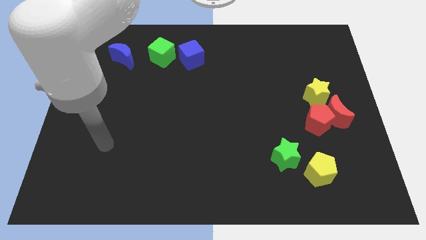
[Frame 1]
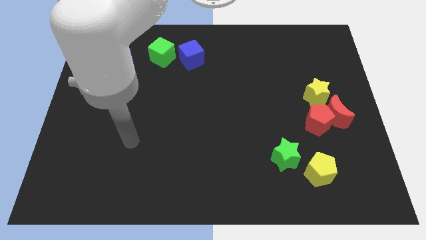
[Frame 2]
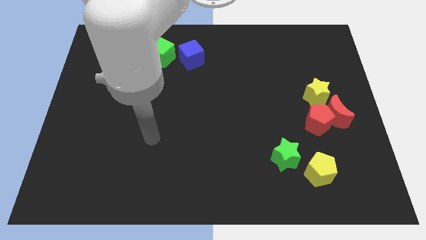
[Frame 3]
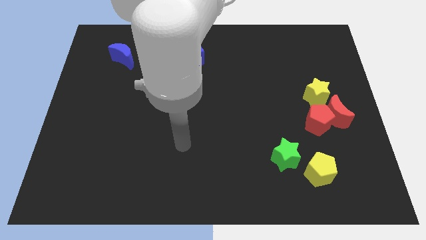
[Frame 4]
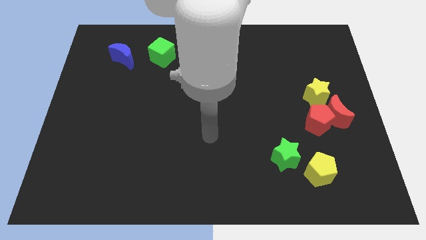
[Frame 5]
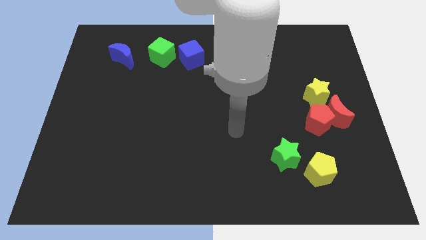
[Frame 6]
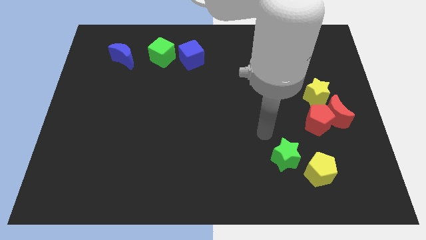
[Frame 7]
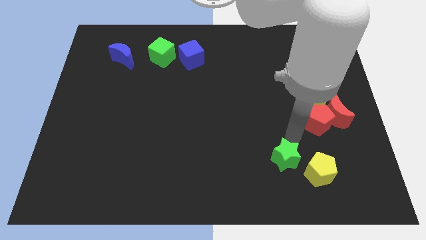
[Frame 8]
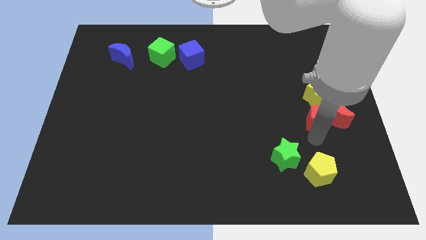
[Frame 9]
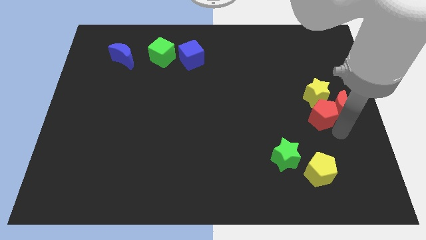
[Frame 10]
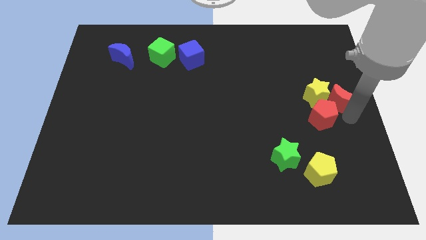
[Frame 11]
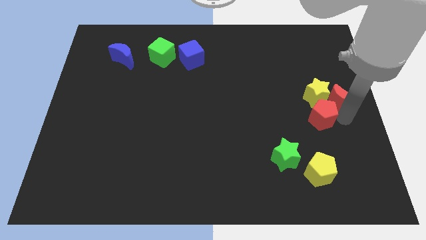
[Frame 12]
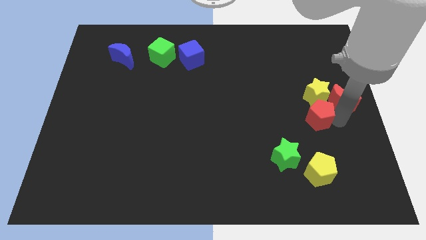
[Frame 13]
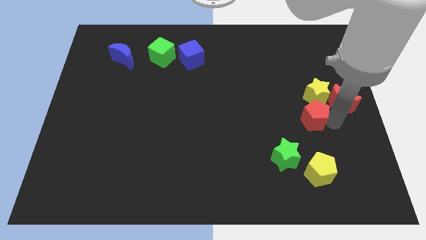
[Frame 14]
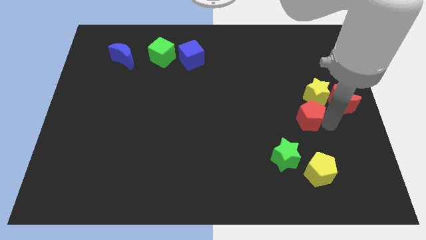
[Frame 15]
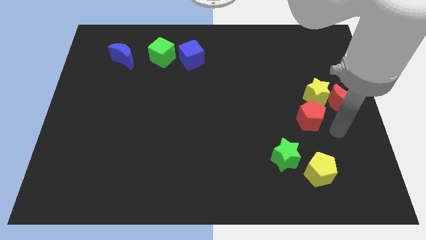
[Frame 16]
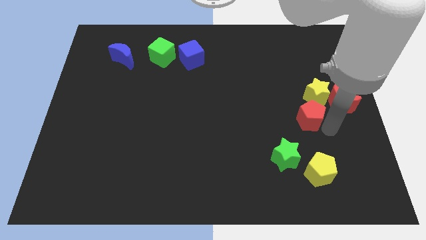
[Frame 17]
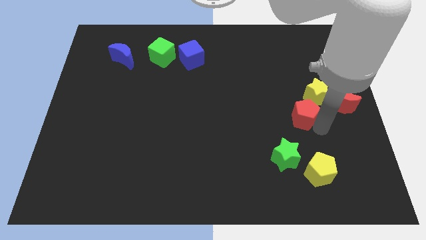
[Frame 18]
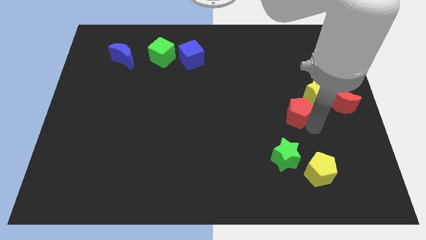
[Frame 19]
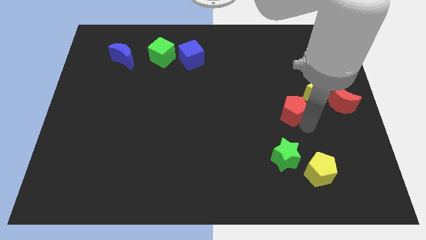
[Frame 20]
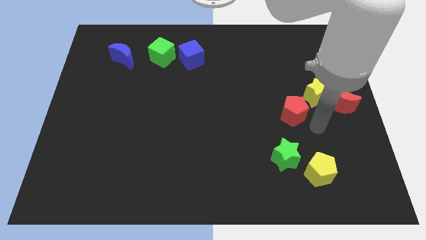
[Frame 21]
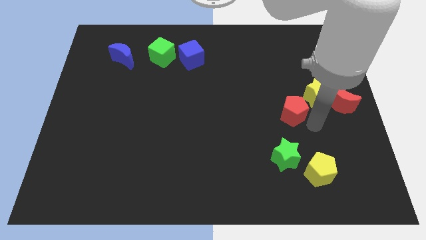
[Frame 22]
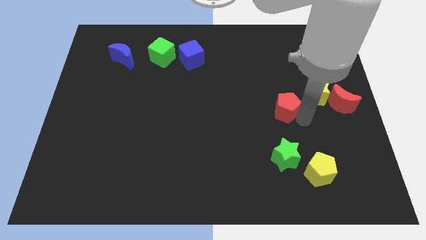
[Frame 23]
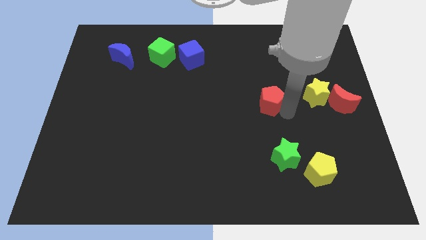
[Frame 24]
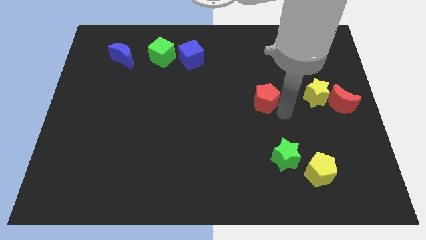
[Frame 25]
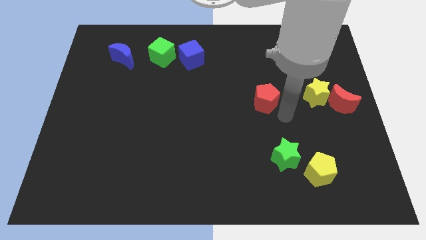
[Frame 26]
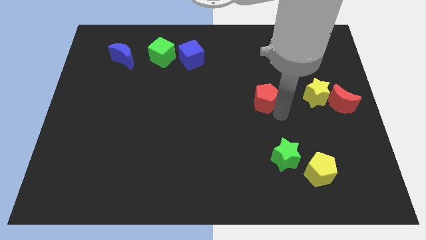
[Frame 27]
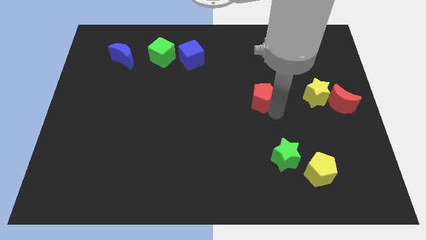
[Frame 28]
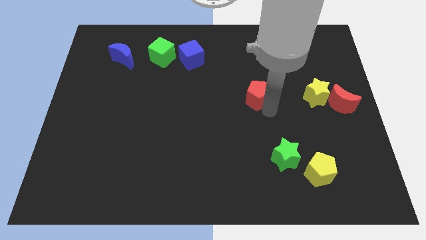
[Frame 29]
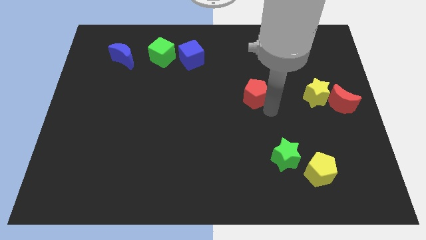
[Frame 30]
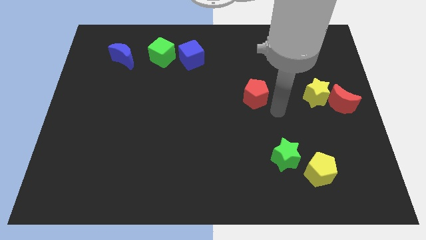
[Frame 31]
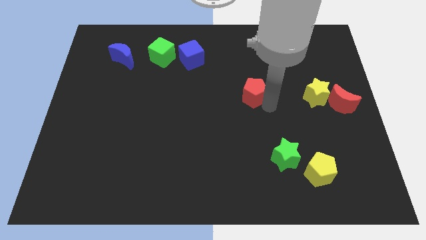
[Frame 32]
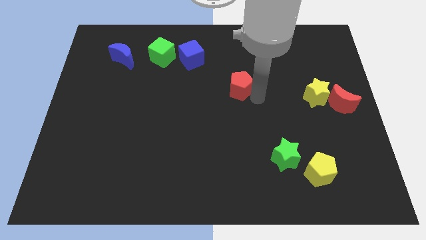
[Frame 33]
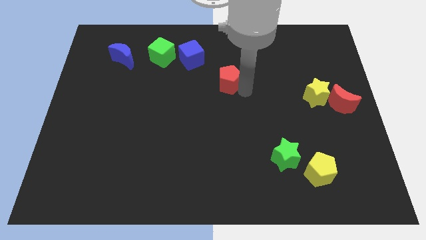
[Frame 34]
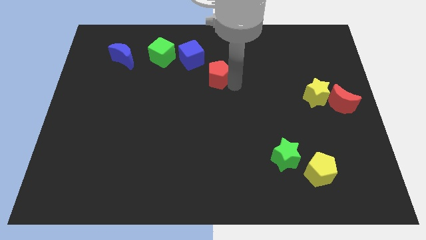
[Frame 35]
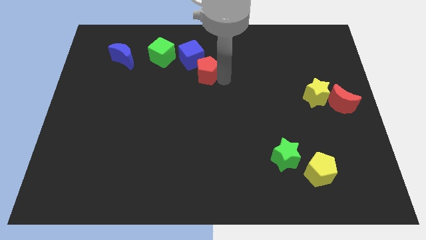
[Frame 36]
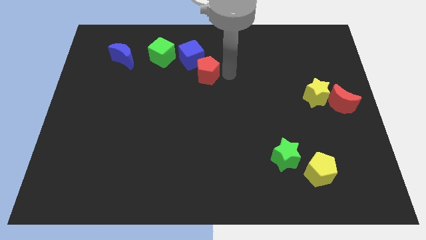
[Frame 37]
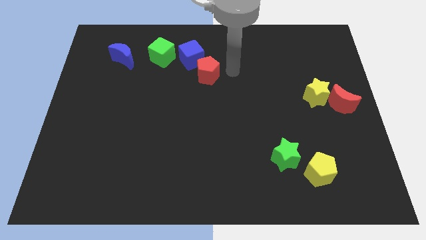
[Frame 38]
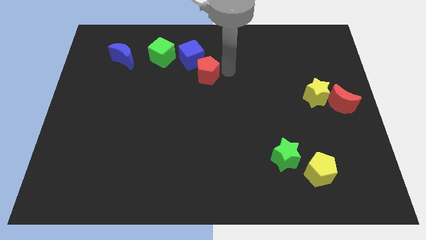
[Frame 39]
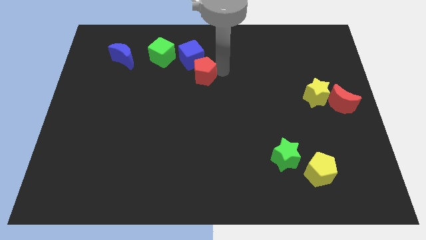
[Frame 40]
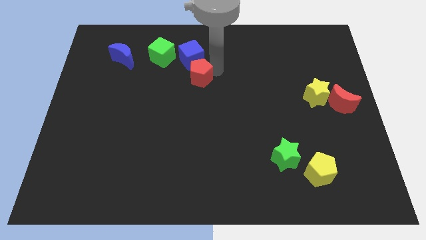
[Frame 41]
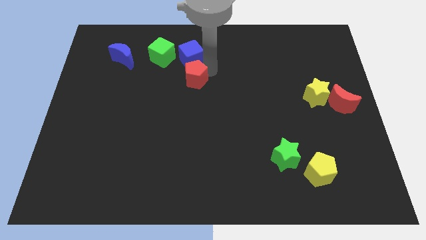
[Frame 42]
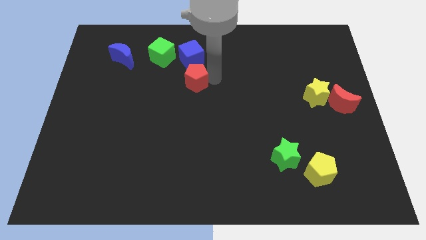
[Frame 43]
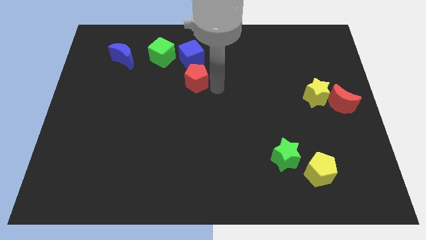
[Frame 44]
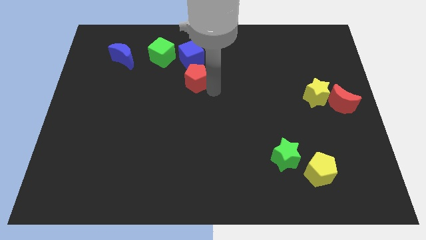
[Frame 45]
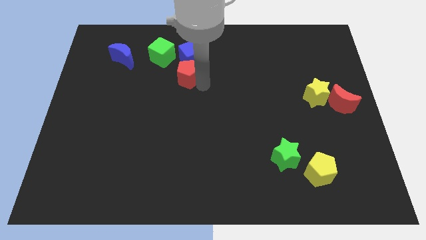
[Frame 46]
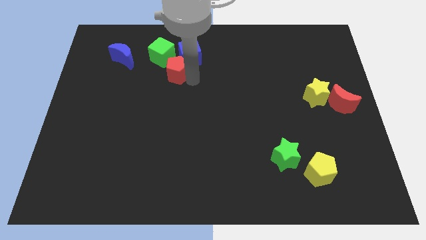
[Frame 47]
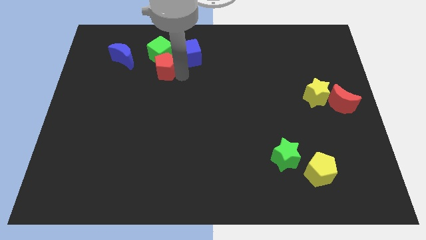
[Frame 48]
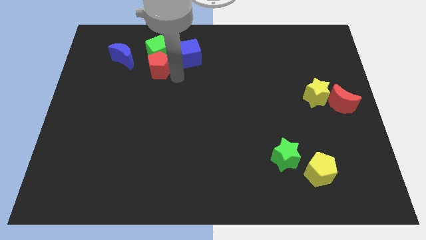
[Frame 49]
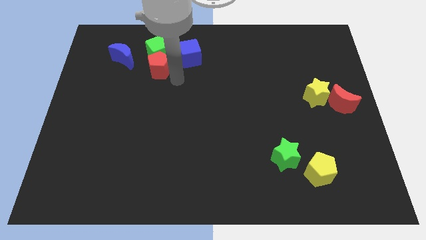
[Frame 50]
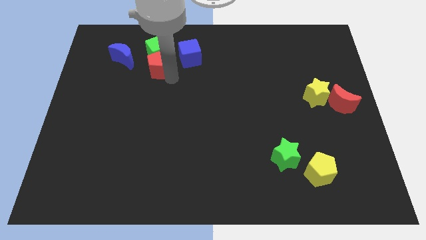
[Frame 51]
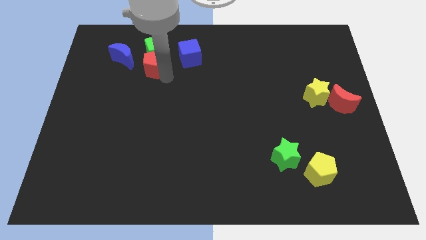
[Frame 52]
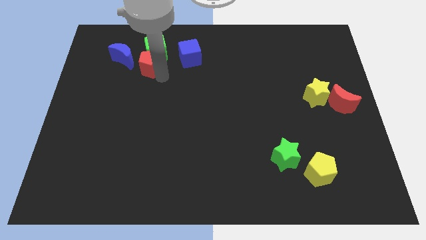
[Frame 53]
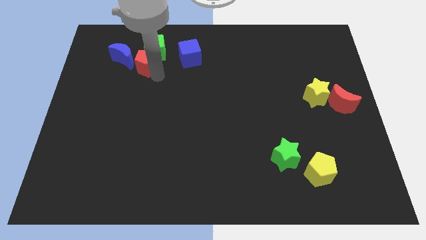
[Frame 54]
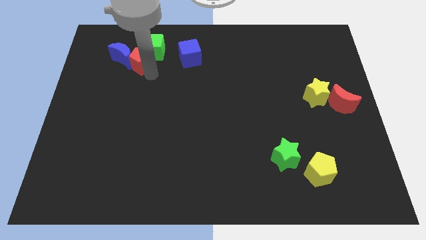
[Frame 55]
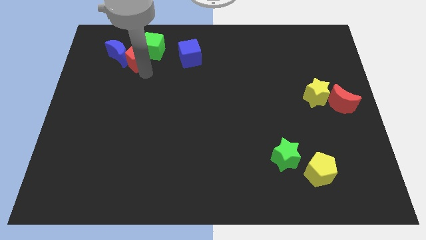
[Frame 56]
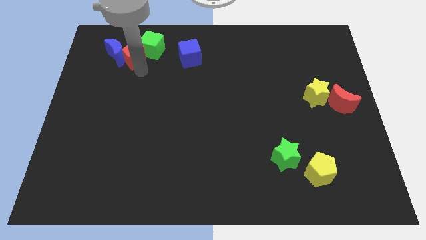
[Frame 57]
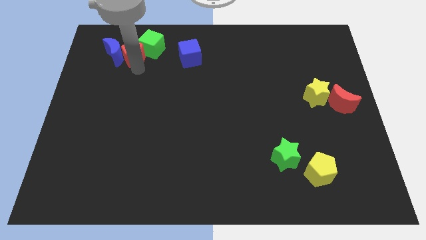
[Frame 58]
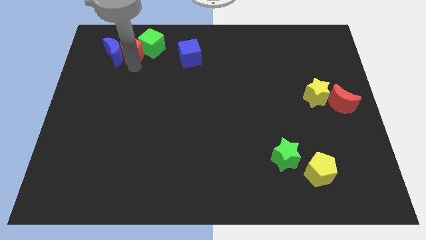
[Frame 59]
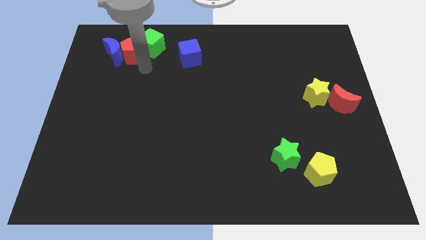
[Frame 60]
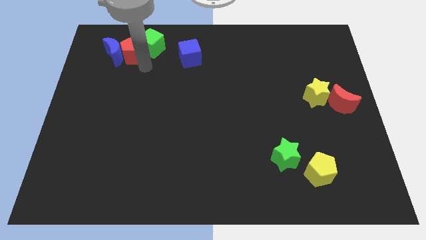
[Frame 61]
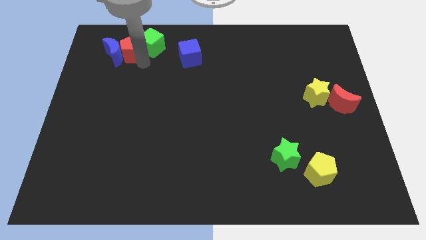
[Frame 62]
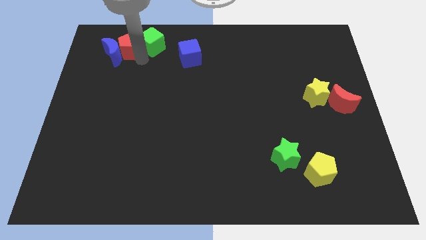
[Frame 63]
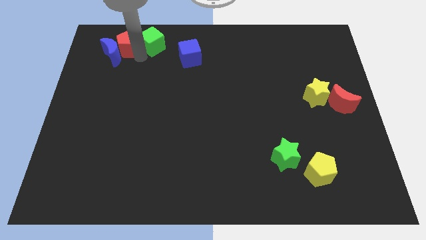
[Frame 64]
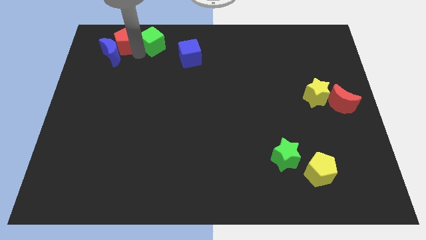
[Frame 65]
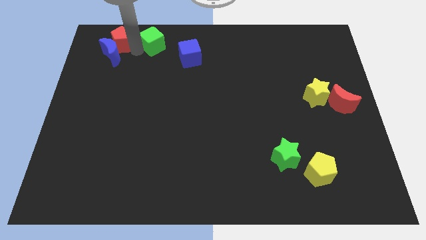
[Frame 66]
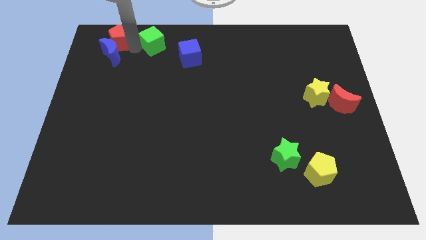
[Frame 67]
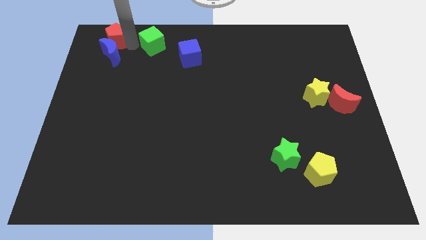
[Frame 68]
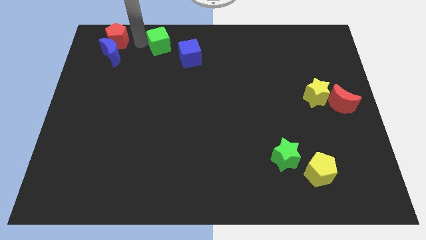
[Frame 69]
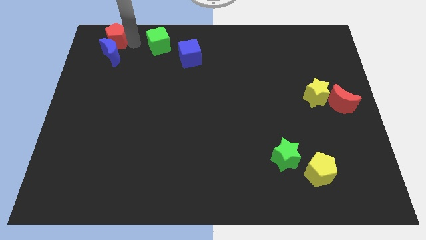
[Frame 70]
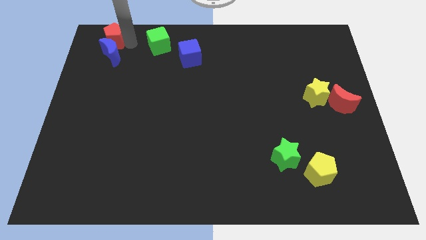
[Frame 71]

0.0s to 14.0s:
move the red pentagon to the top left corner
